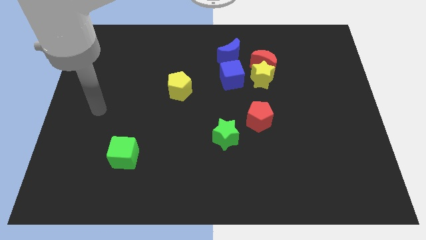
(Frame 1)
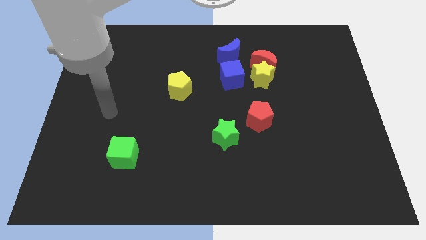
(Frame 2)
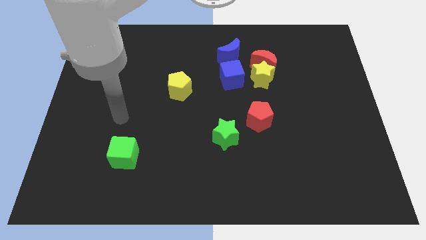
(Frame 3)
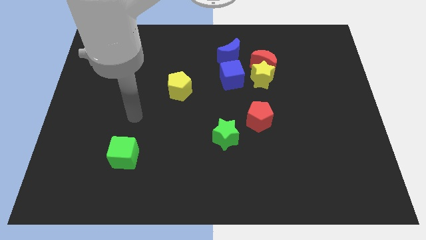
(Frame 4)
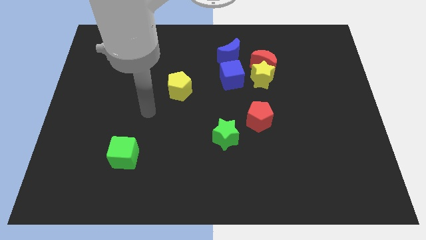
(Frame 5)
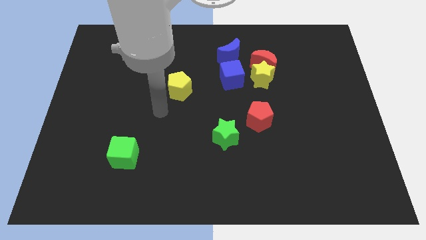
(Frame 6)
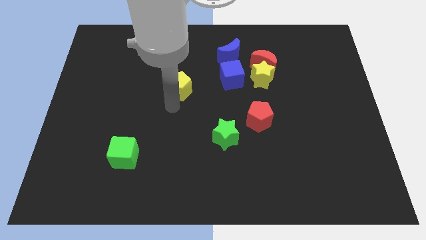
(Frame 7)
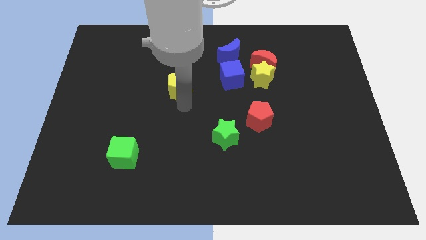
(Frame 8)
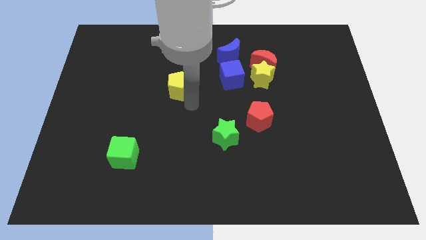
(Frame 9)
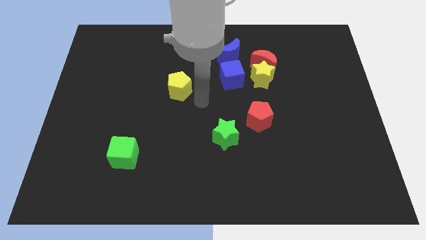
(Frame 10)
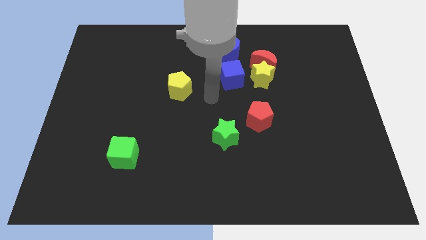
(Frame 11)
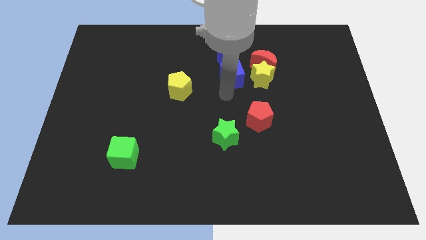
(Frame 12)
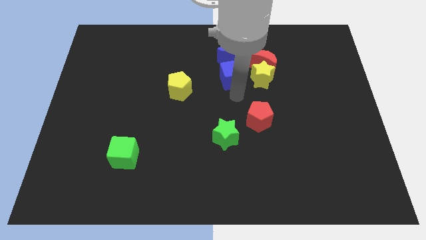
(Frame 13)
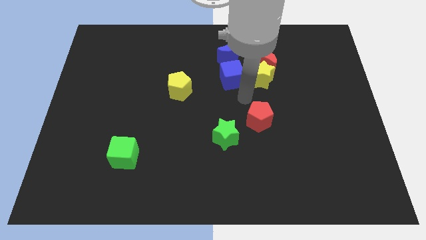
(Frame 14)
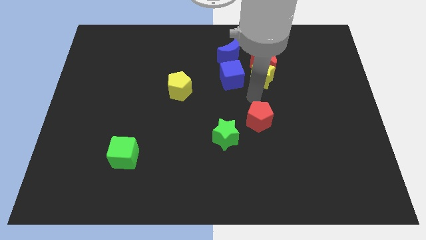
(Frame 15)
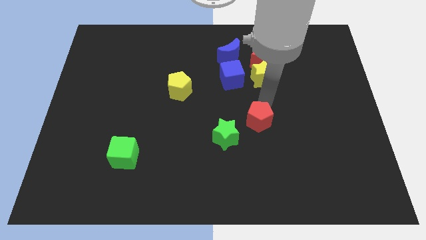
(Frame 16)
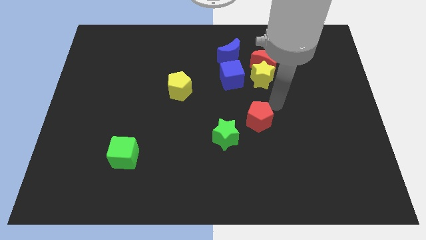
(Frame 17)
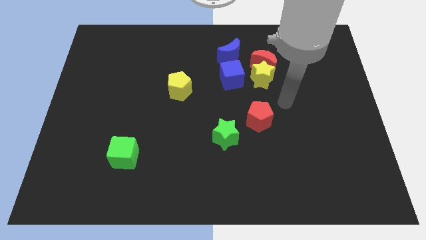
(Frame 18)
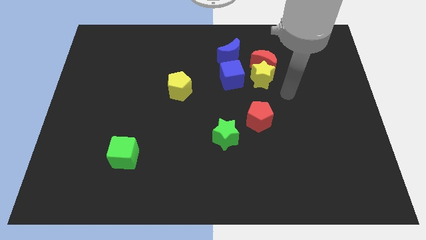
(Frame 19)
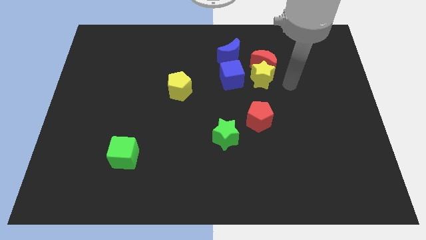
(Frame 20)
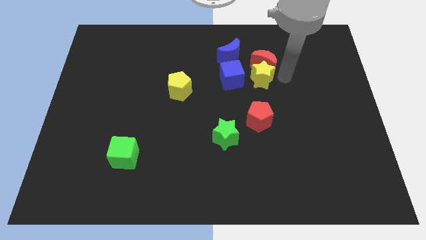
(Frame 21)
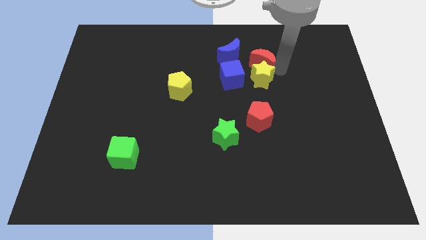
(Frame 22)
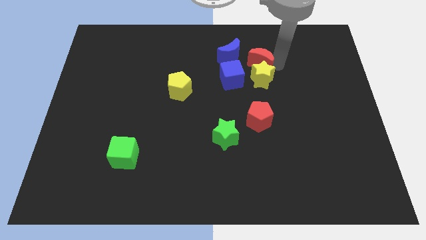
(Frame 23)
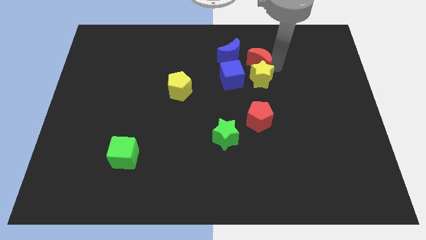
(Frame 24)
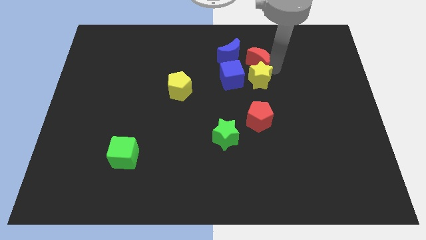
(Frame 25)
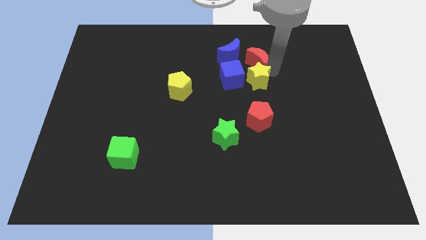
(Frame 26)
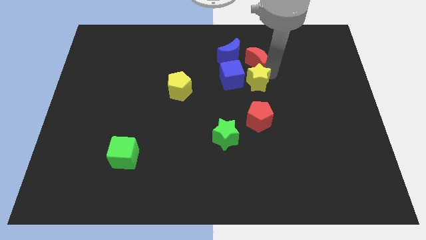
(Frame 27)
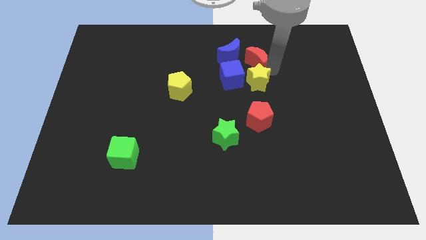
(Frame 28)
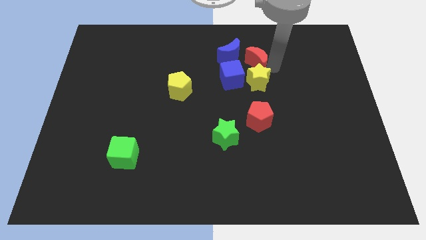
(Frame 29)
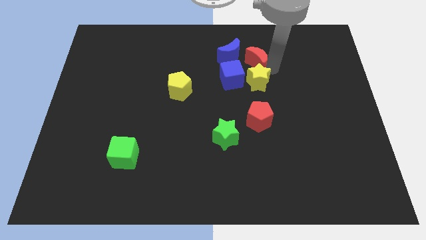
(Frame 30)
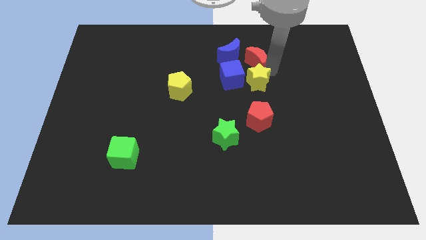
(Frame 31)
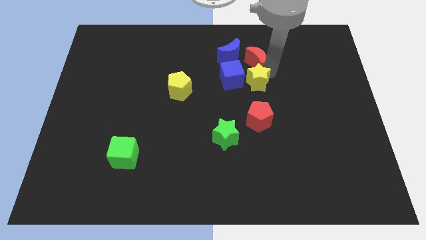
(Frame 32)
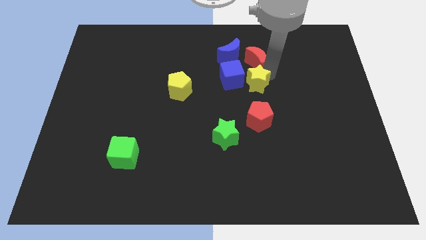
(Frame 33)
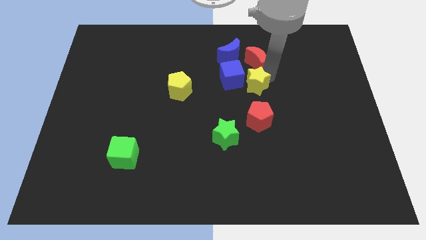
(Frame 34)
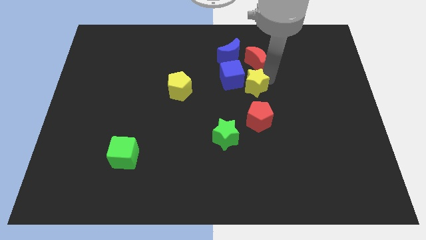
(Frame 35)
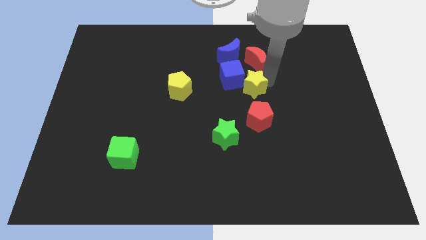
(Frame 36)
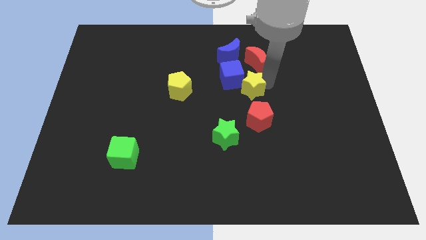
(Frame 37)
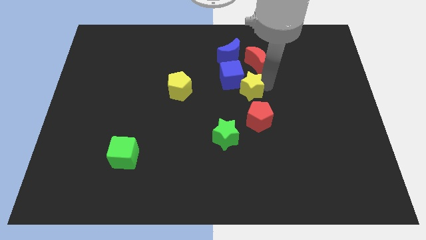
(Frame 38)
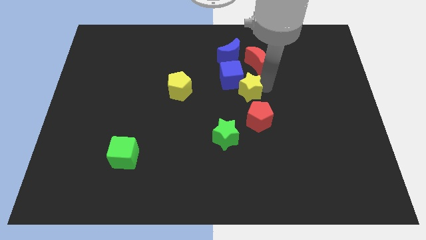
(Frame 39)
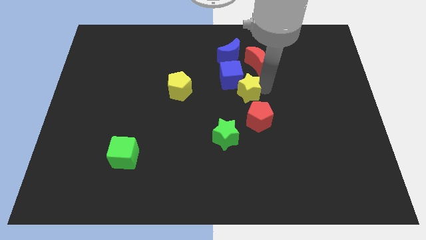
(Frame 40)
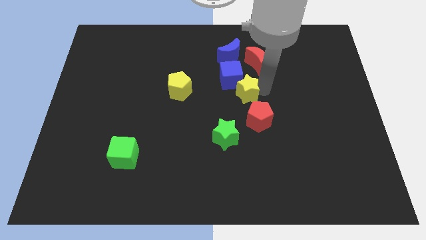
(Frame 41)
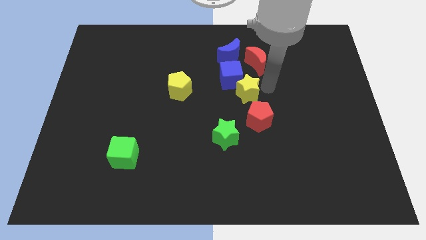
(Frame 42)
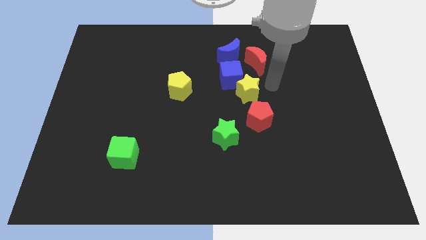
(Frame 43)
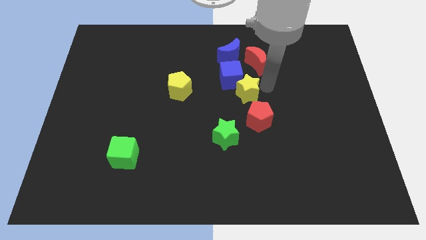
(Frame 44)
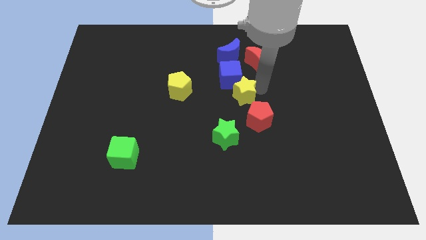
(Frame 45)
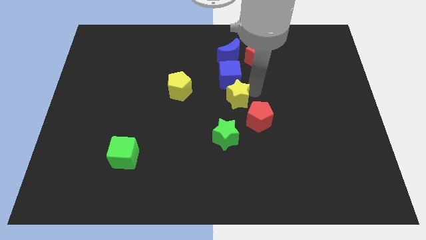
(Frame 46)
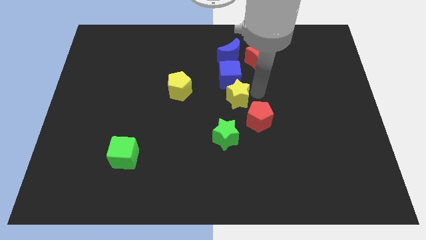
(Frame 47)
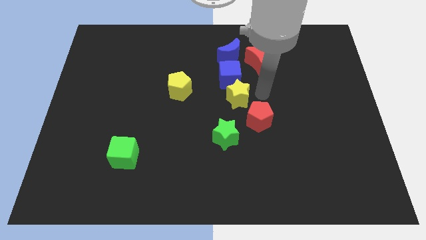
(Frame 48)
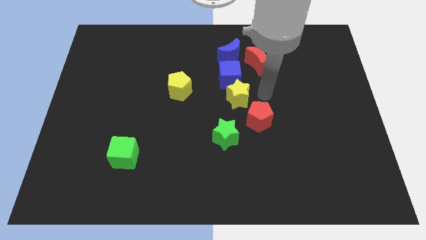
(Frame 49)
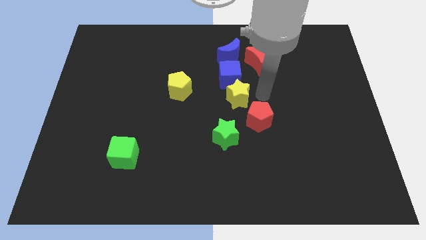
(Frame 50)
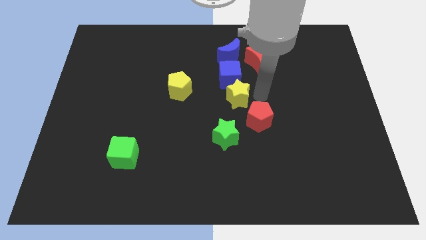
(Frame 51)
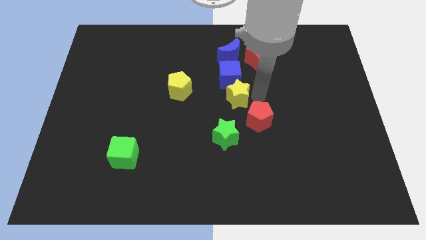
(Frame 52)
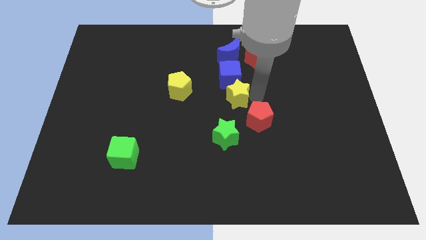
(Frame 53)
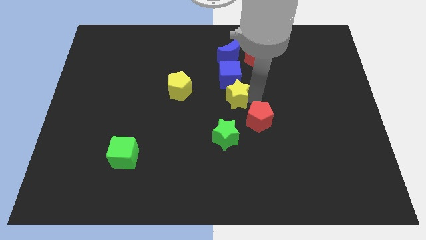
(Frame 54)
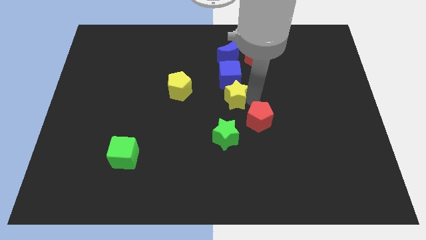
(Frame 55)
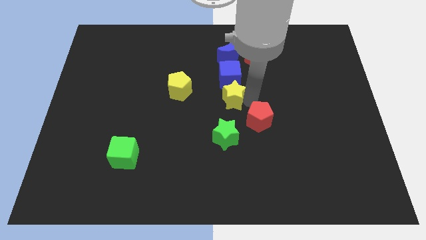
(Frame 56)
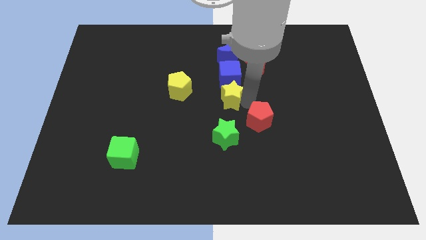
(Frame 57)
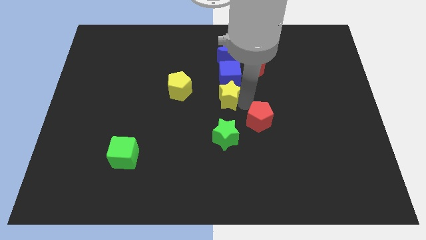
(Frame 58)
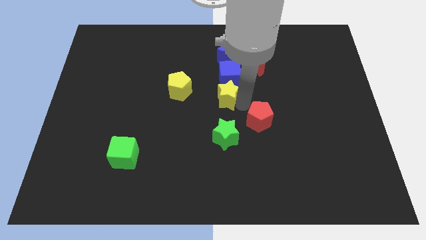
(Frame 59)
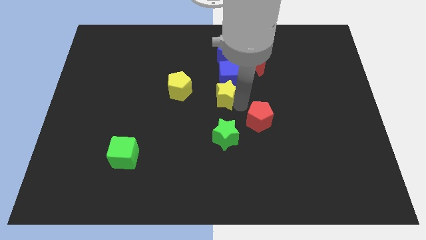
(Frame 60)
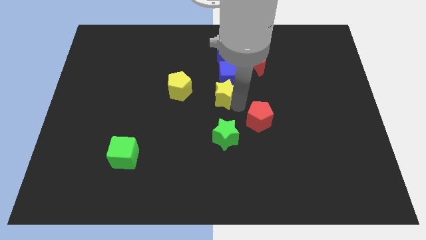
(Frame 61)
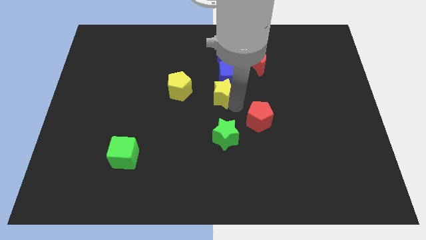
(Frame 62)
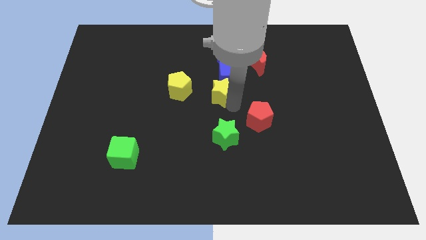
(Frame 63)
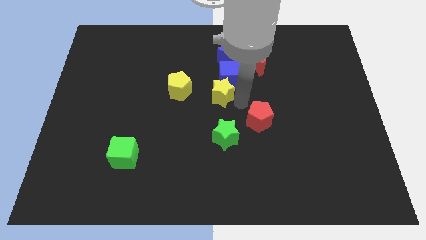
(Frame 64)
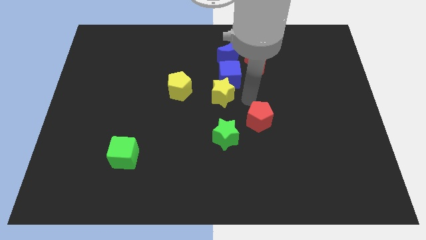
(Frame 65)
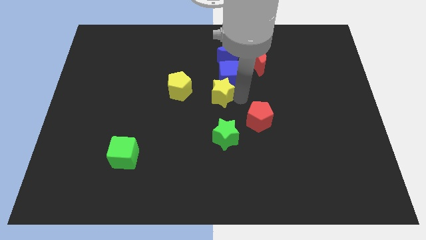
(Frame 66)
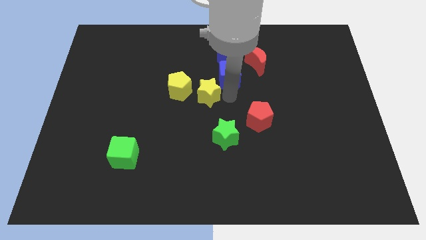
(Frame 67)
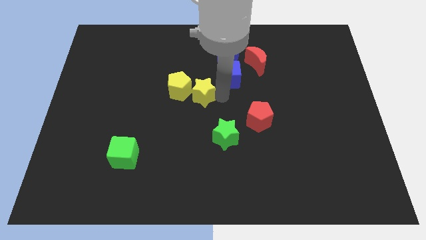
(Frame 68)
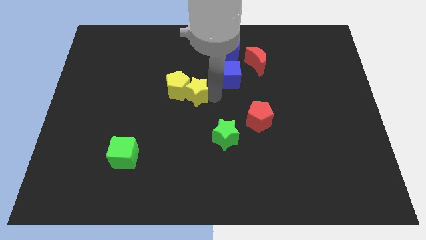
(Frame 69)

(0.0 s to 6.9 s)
put the yellow star next to the yellow pentagon
